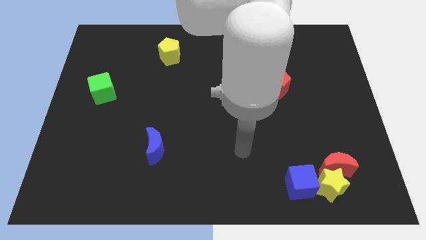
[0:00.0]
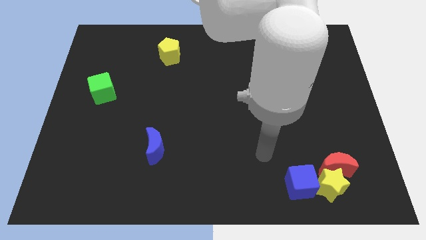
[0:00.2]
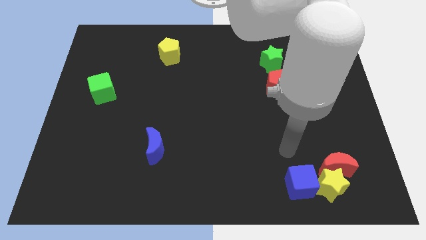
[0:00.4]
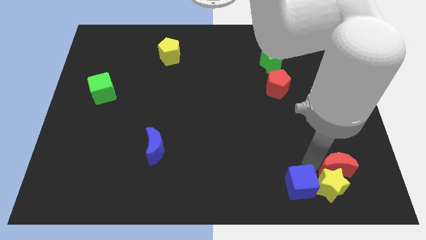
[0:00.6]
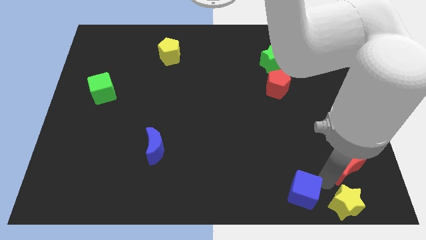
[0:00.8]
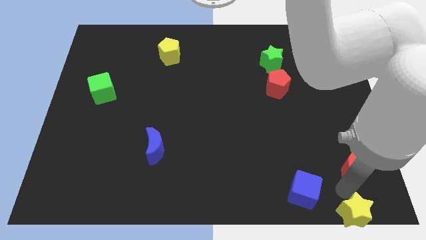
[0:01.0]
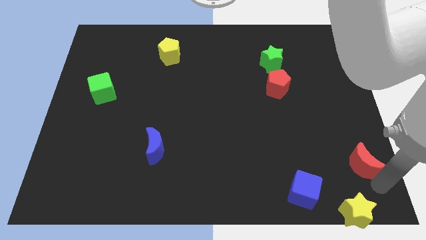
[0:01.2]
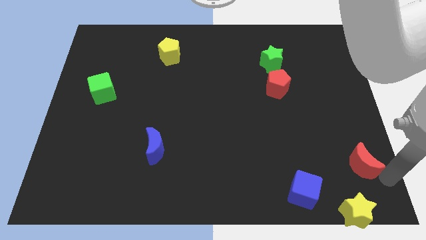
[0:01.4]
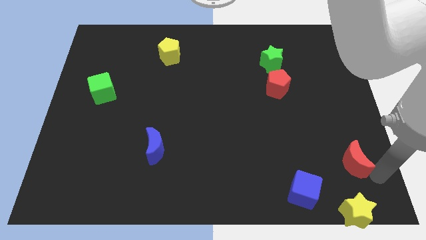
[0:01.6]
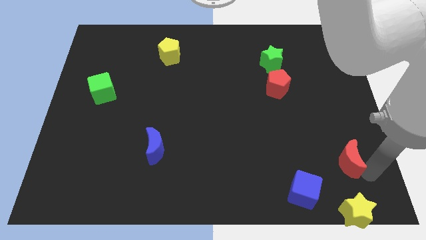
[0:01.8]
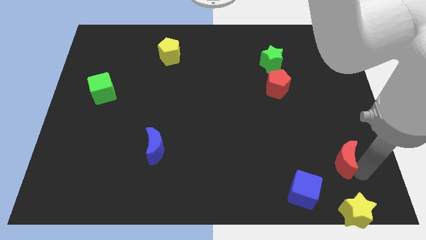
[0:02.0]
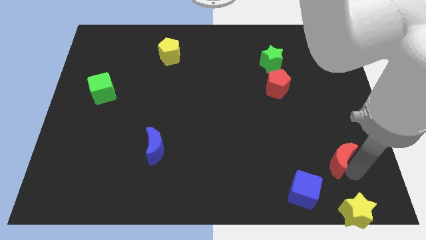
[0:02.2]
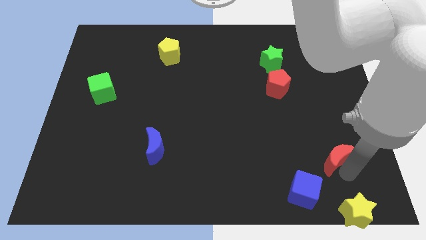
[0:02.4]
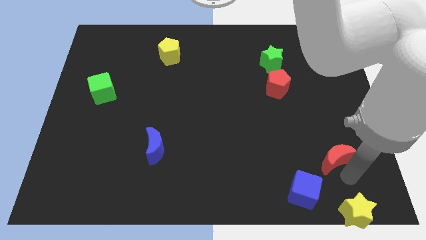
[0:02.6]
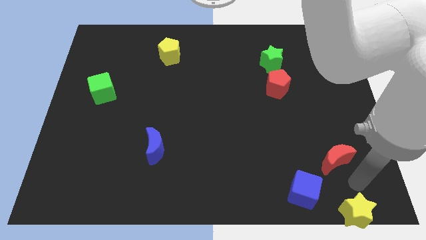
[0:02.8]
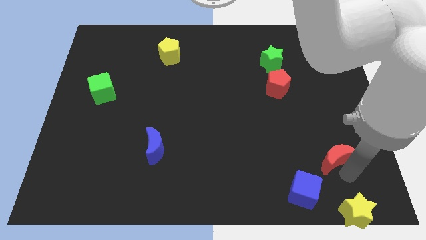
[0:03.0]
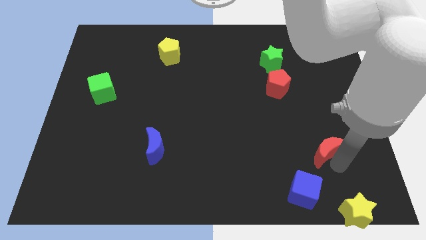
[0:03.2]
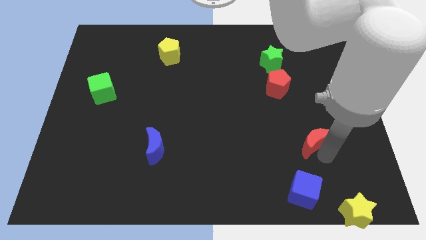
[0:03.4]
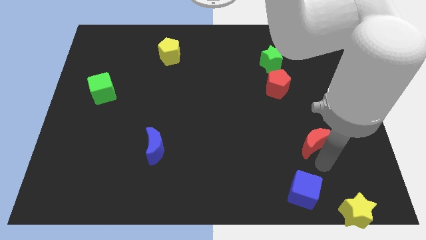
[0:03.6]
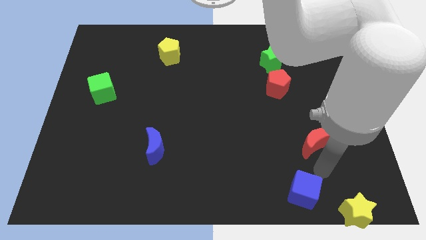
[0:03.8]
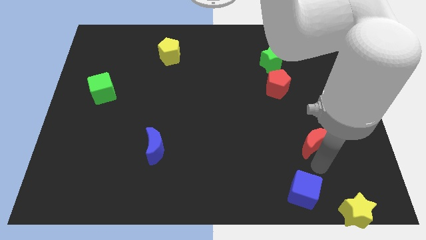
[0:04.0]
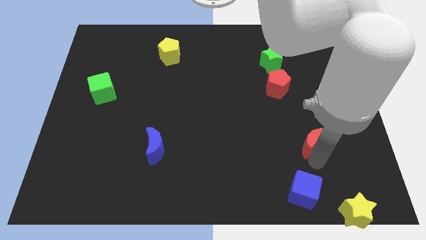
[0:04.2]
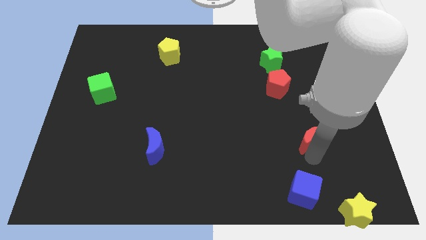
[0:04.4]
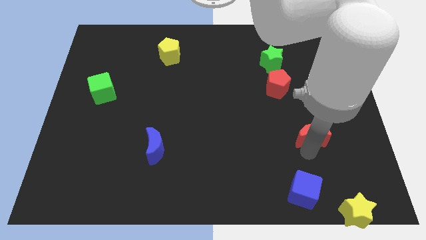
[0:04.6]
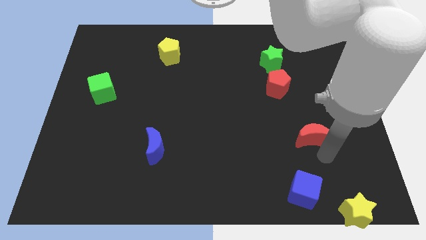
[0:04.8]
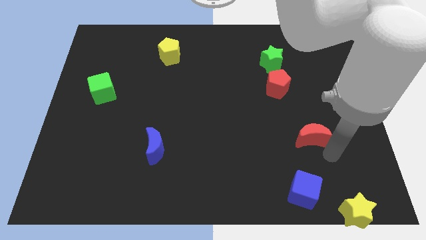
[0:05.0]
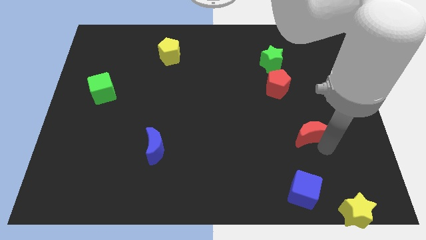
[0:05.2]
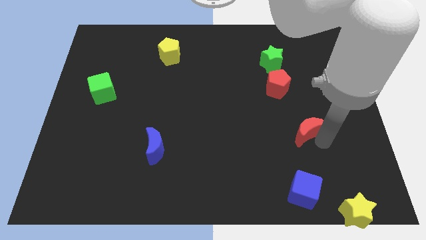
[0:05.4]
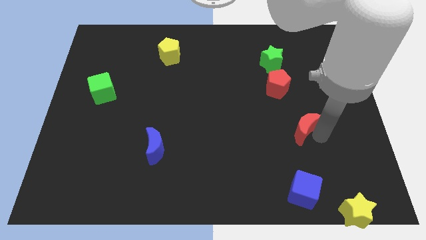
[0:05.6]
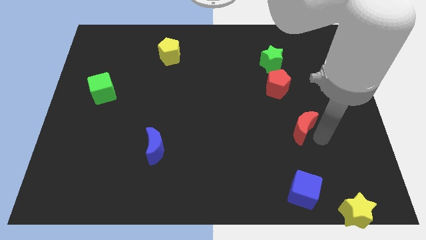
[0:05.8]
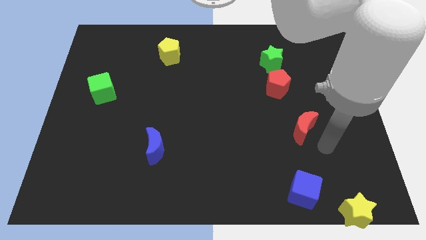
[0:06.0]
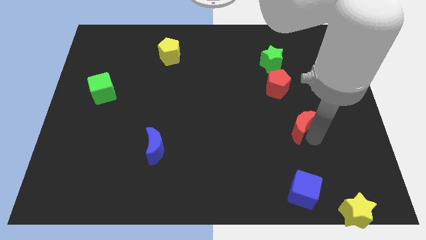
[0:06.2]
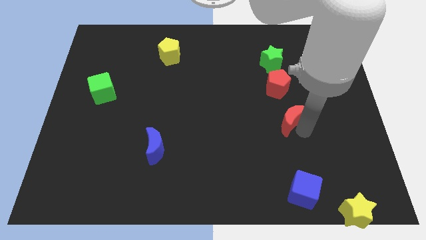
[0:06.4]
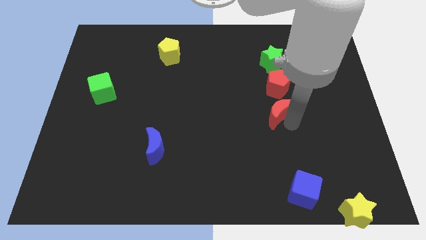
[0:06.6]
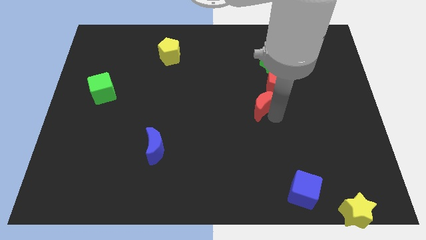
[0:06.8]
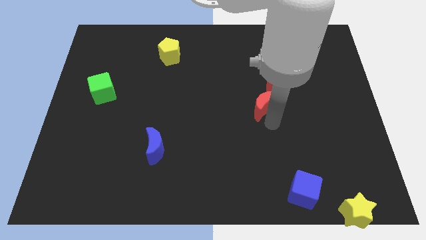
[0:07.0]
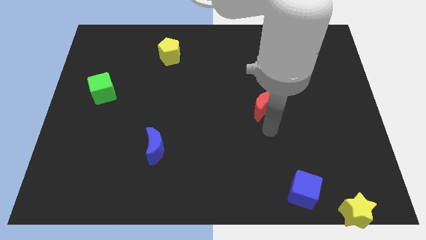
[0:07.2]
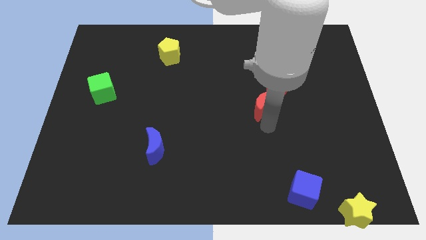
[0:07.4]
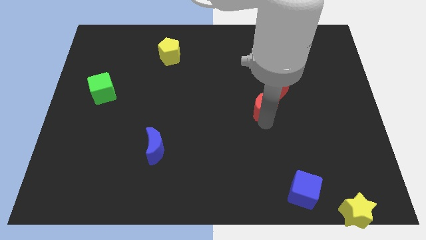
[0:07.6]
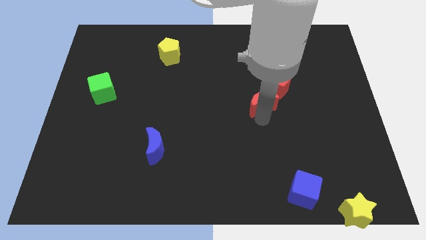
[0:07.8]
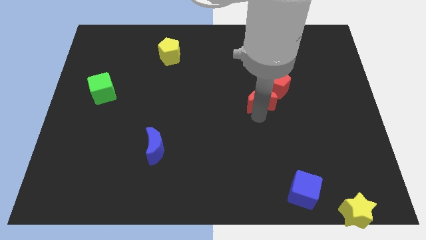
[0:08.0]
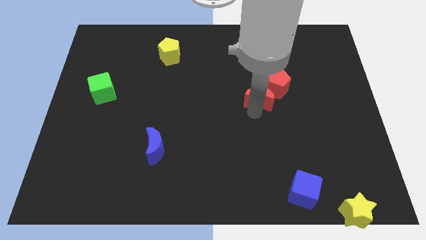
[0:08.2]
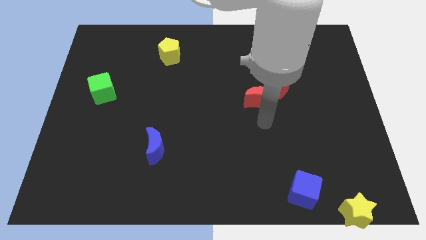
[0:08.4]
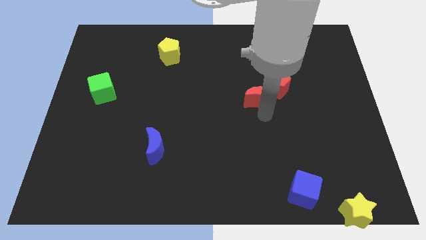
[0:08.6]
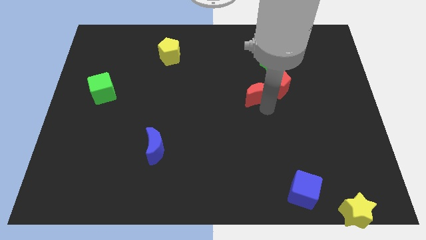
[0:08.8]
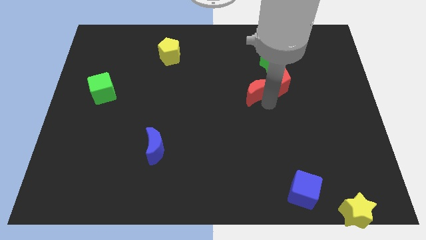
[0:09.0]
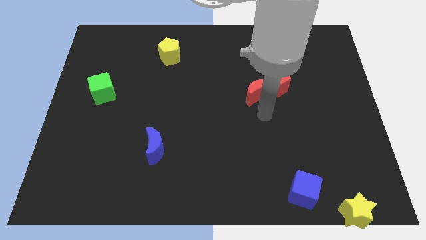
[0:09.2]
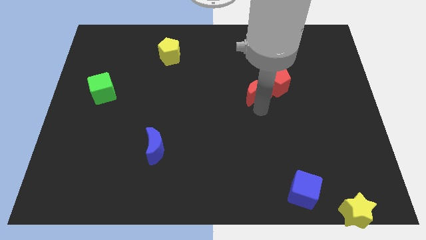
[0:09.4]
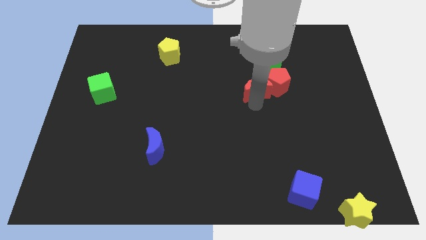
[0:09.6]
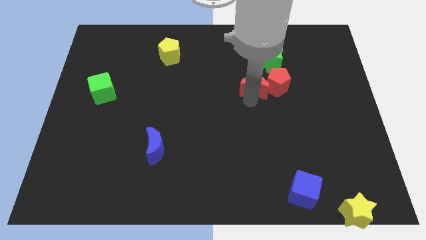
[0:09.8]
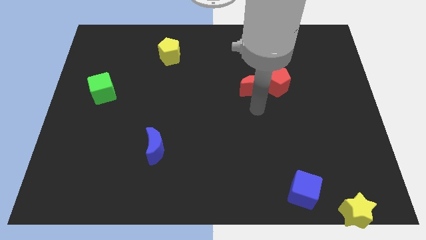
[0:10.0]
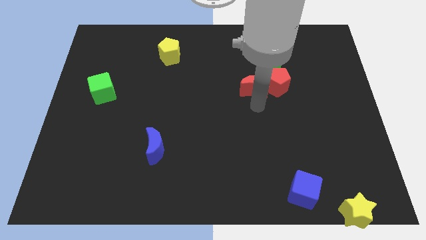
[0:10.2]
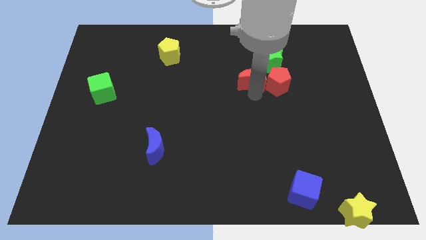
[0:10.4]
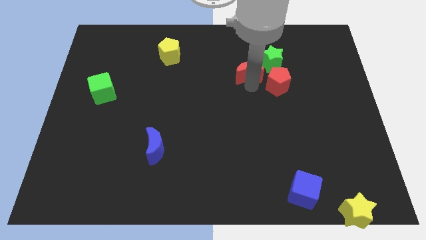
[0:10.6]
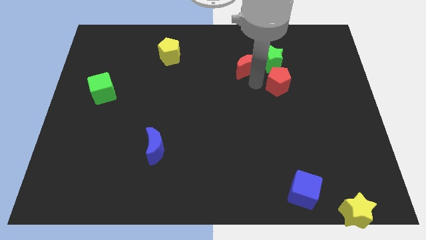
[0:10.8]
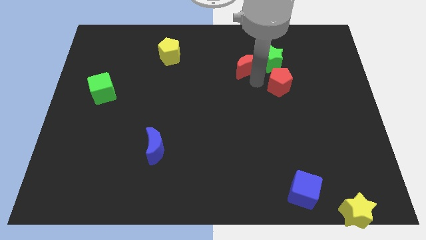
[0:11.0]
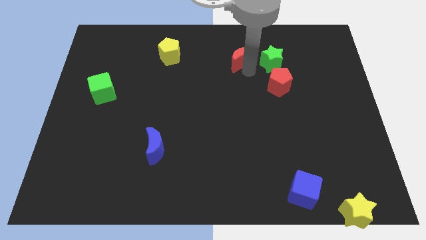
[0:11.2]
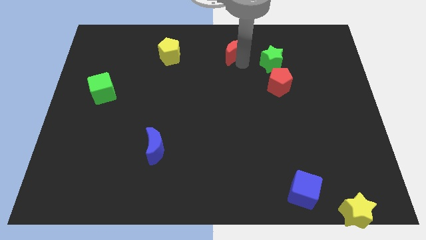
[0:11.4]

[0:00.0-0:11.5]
move the red moon to the top side

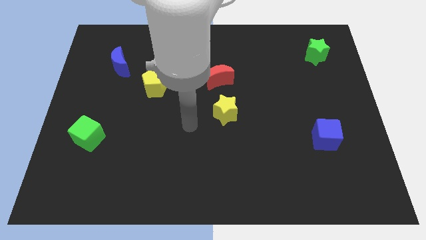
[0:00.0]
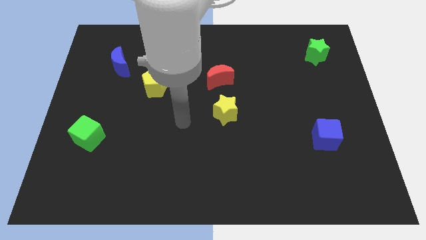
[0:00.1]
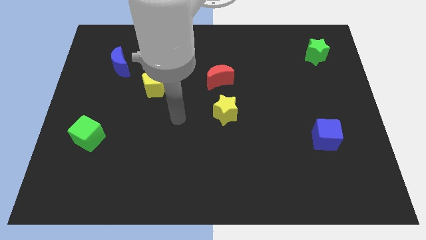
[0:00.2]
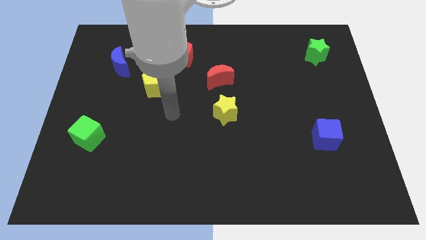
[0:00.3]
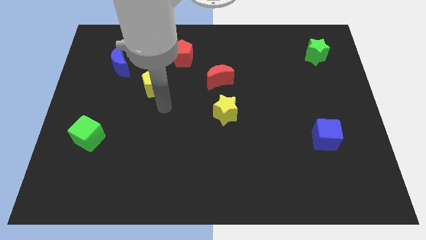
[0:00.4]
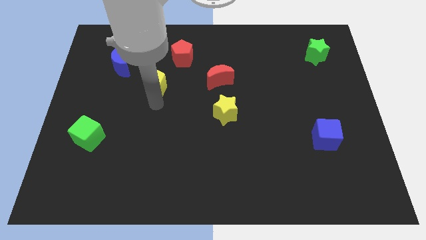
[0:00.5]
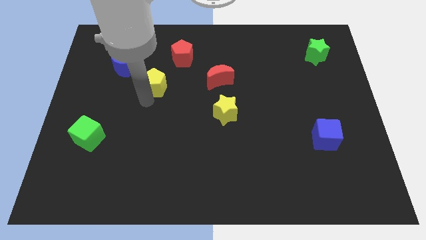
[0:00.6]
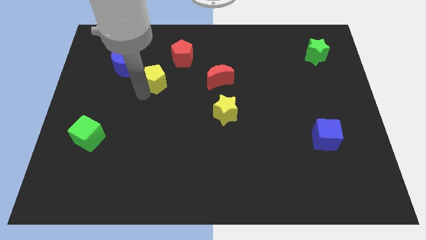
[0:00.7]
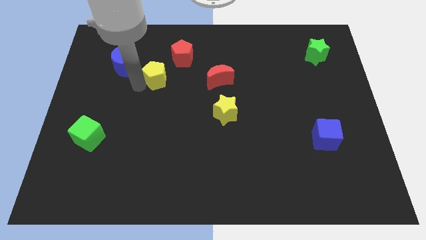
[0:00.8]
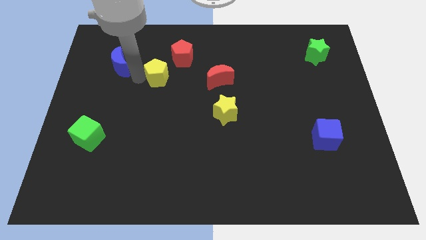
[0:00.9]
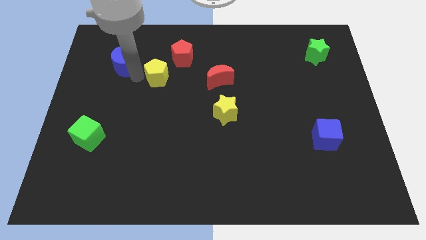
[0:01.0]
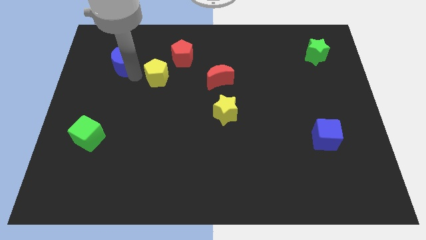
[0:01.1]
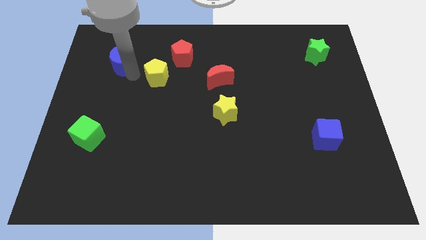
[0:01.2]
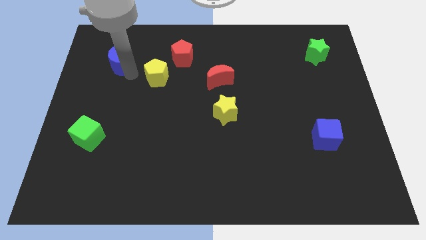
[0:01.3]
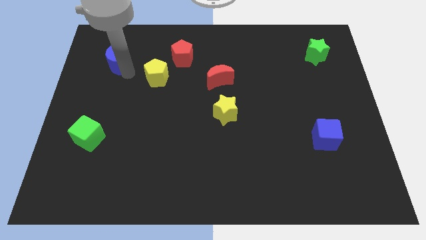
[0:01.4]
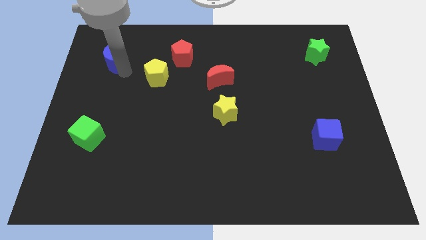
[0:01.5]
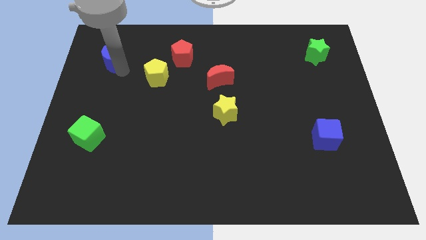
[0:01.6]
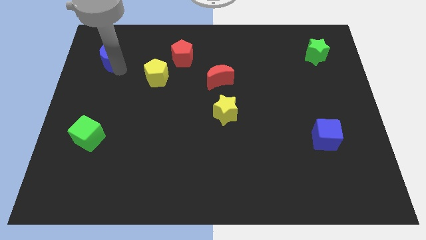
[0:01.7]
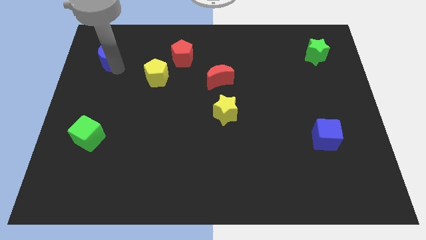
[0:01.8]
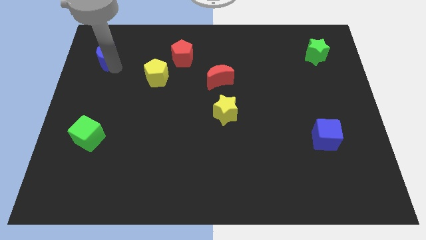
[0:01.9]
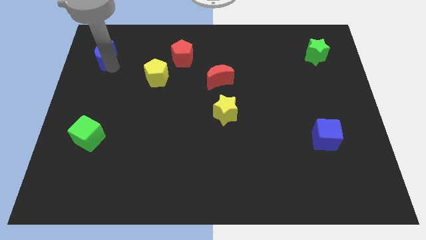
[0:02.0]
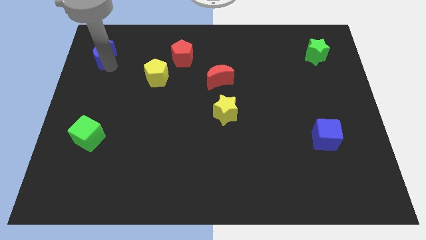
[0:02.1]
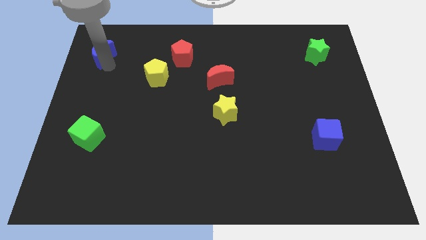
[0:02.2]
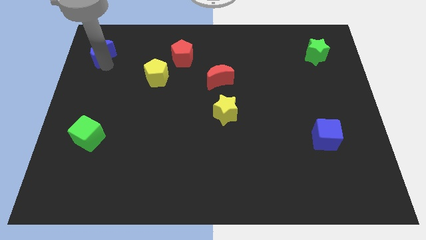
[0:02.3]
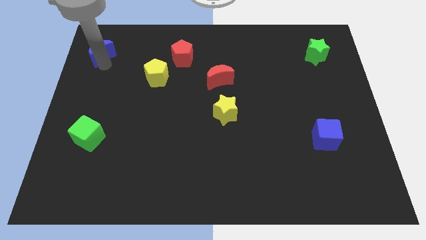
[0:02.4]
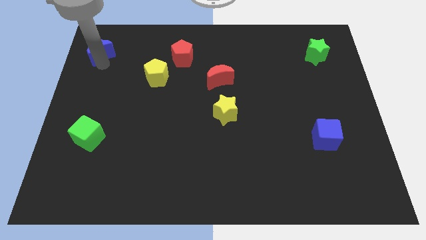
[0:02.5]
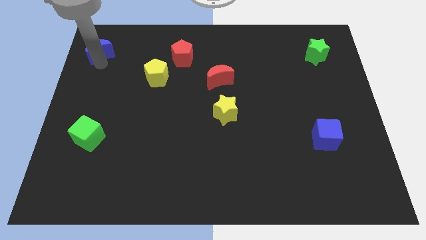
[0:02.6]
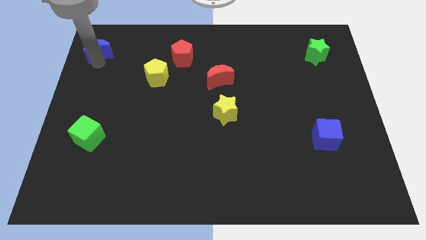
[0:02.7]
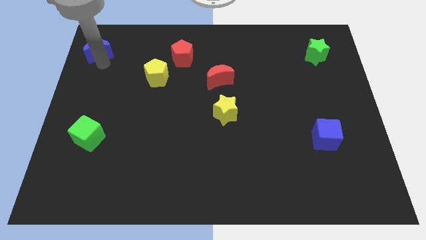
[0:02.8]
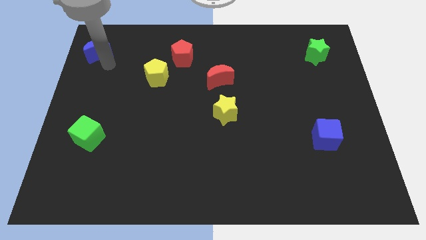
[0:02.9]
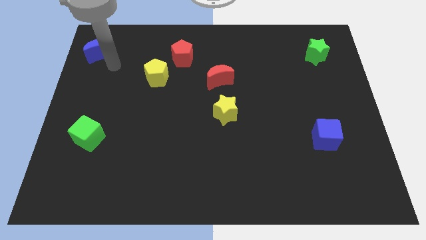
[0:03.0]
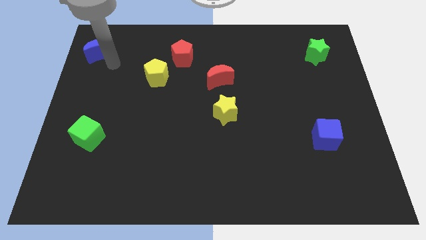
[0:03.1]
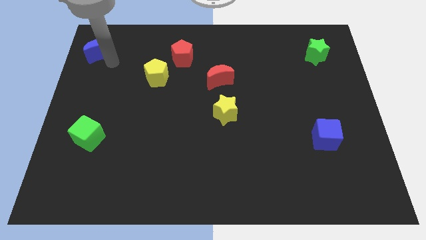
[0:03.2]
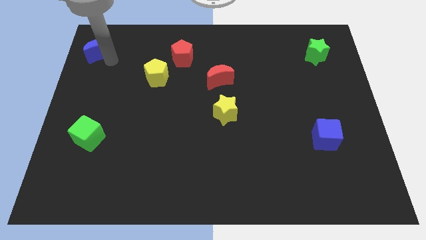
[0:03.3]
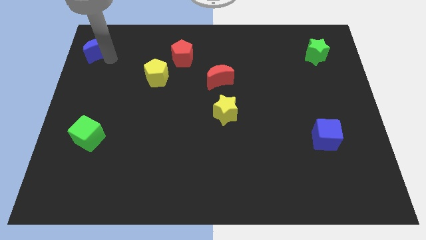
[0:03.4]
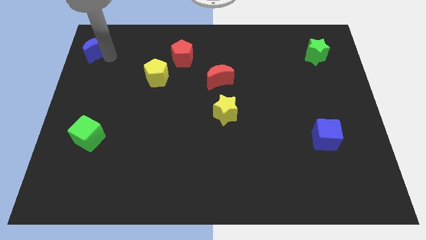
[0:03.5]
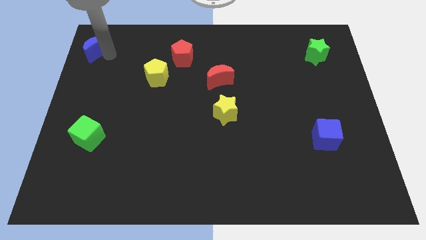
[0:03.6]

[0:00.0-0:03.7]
push the blue moon to the upper left corner
